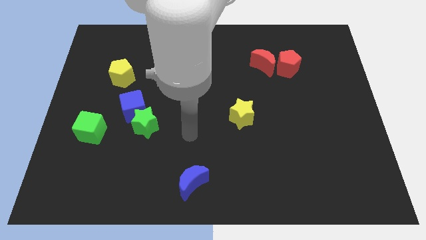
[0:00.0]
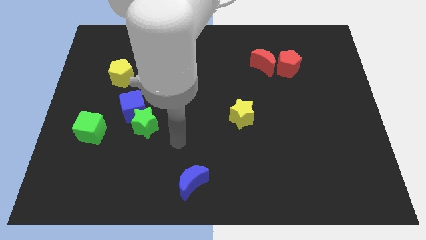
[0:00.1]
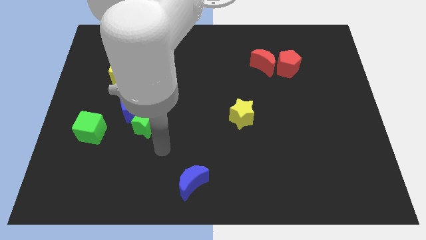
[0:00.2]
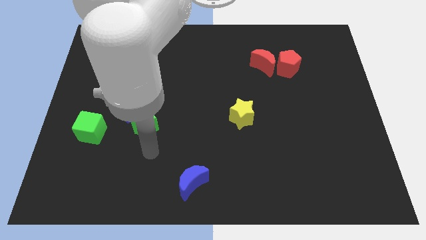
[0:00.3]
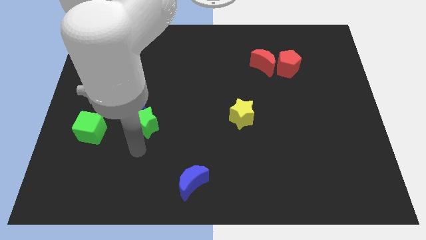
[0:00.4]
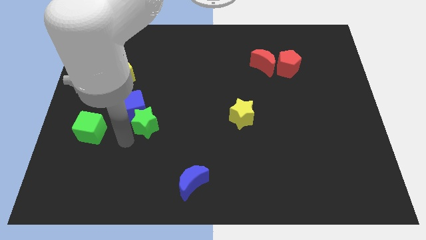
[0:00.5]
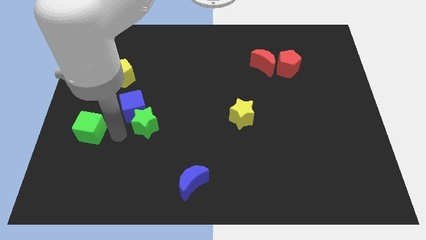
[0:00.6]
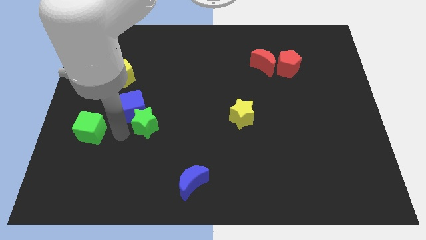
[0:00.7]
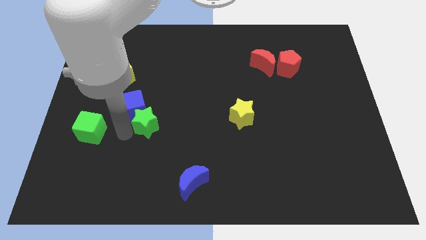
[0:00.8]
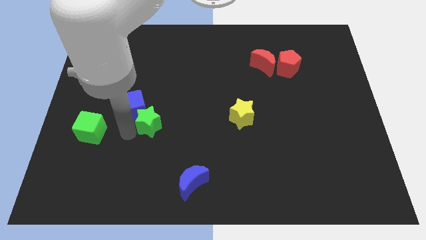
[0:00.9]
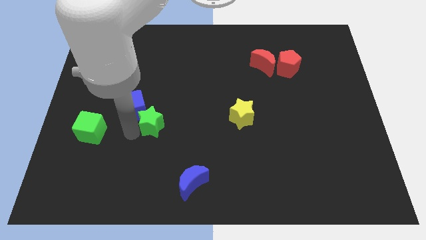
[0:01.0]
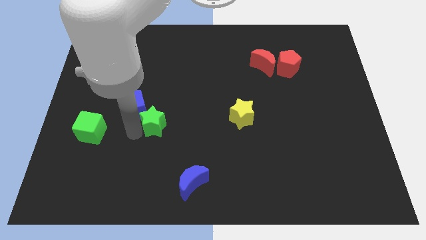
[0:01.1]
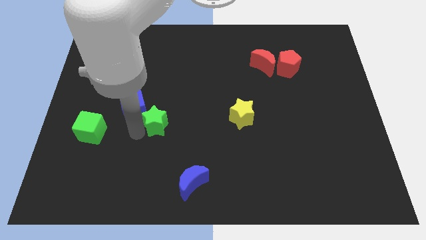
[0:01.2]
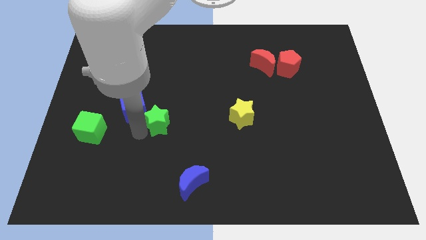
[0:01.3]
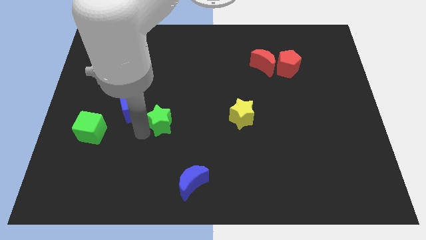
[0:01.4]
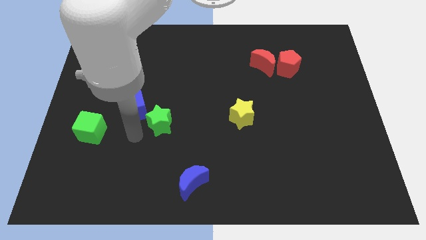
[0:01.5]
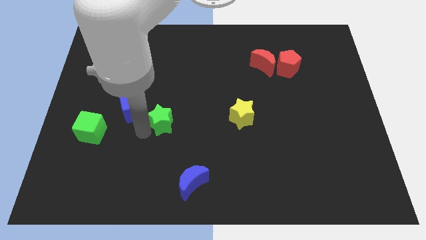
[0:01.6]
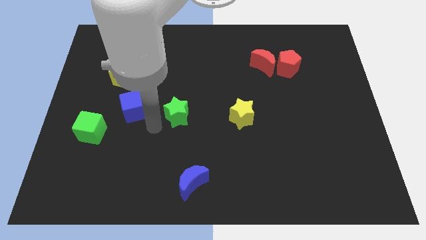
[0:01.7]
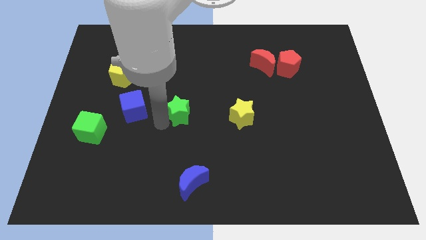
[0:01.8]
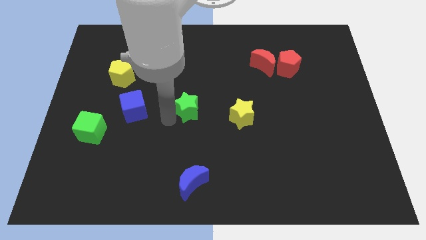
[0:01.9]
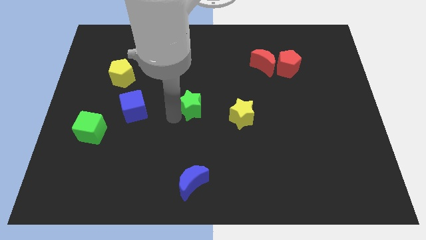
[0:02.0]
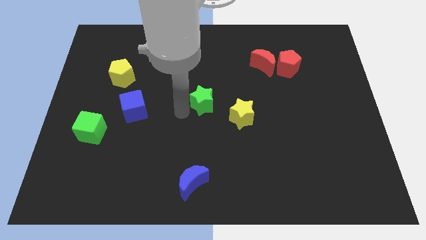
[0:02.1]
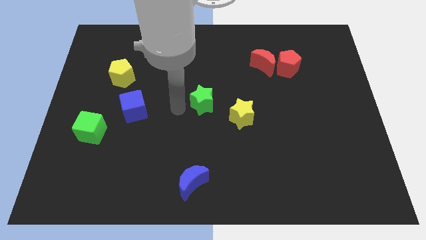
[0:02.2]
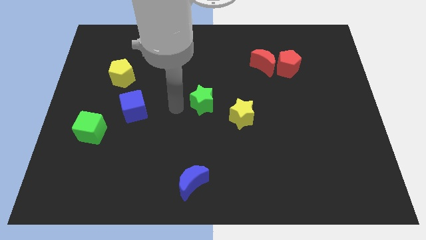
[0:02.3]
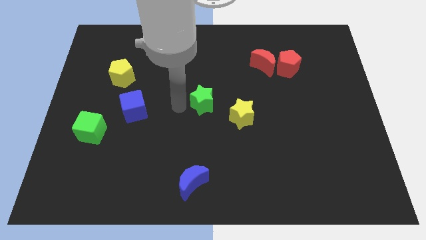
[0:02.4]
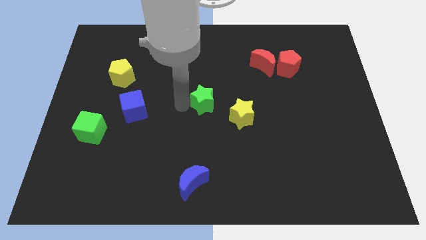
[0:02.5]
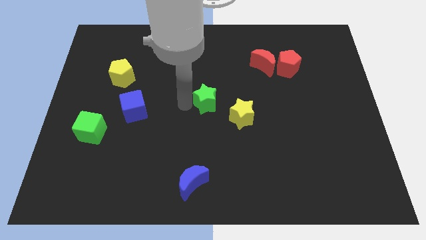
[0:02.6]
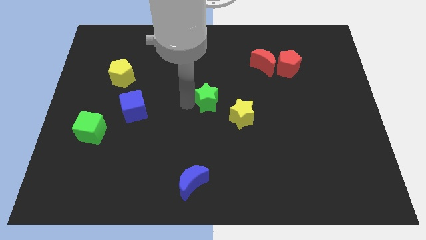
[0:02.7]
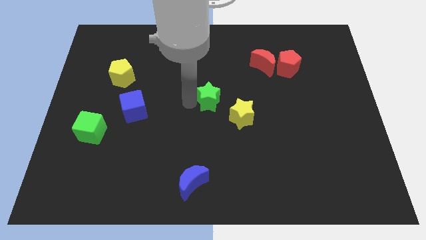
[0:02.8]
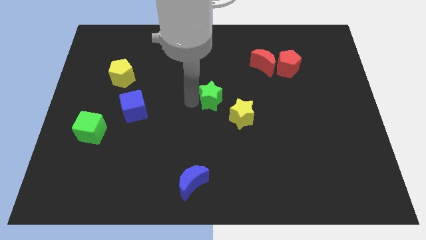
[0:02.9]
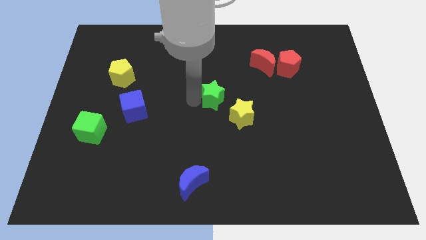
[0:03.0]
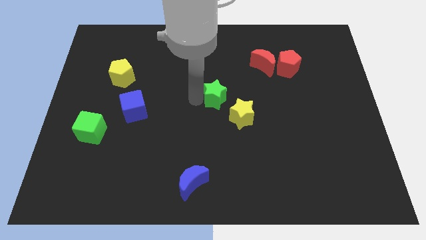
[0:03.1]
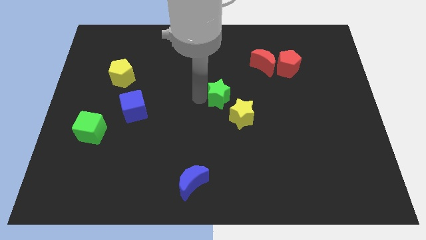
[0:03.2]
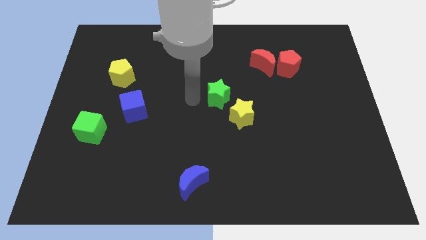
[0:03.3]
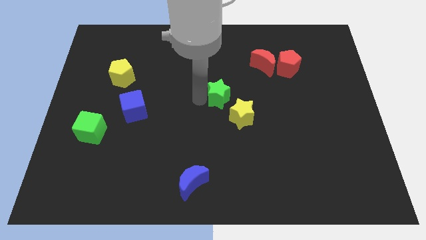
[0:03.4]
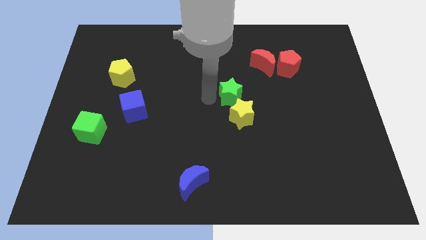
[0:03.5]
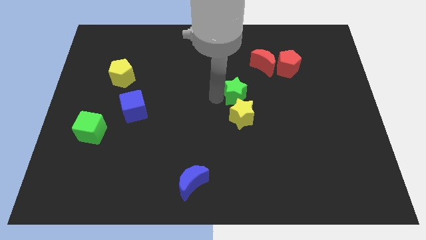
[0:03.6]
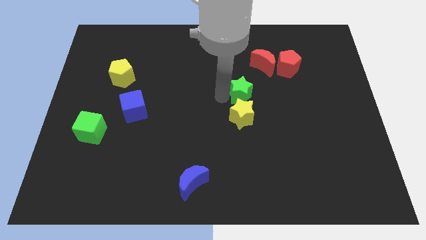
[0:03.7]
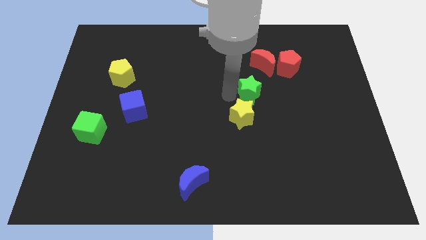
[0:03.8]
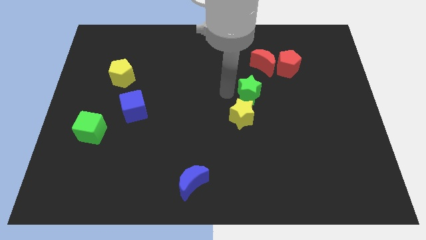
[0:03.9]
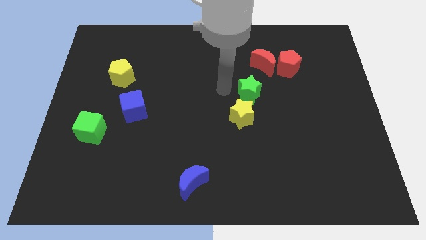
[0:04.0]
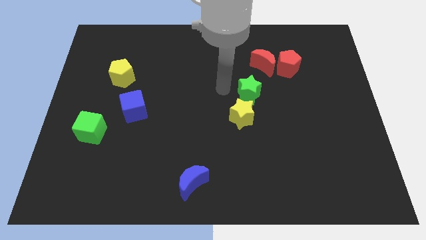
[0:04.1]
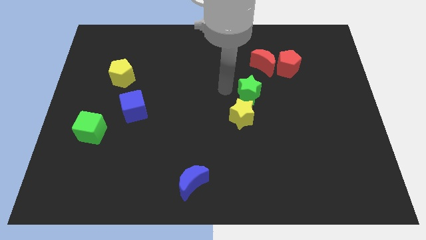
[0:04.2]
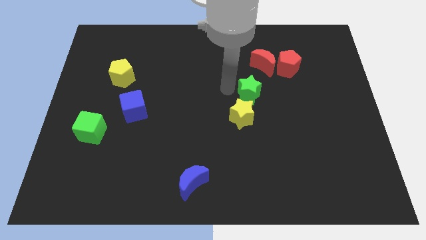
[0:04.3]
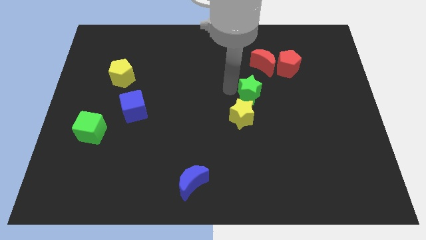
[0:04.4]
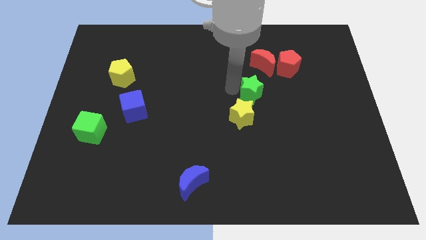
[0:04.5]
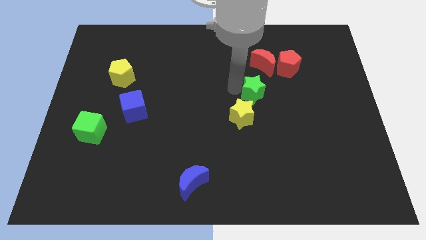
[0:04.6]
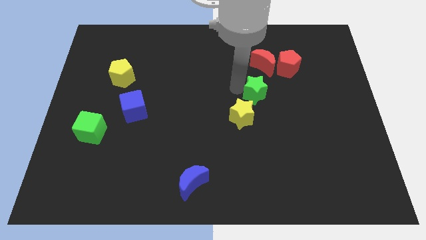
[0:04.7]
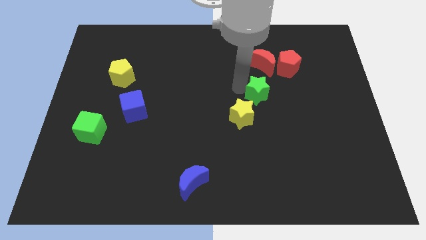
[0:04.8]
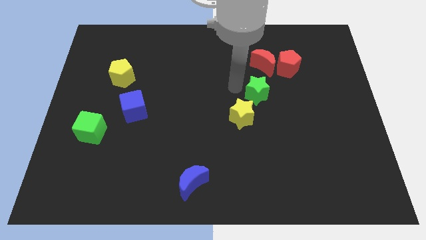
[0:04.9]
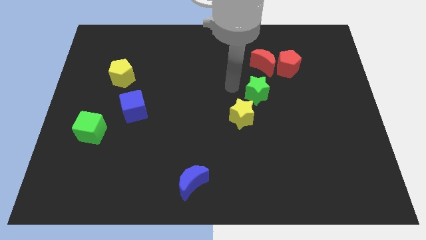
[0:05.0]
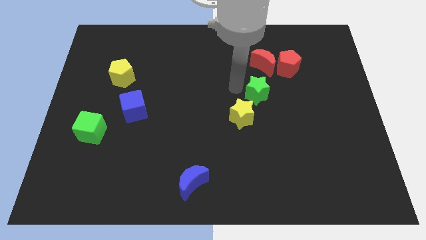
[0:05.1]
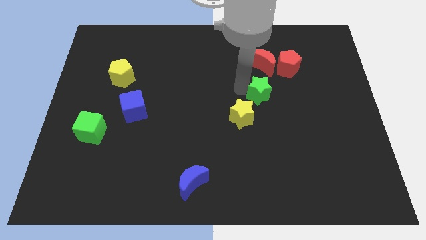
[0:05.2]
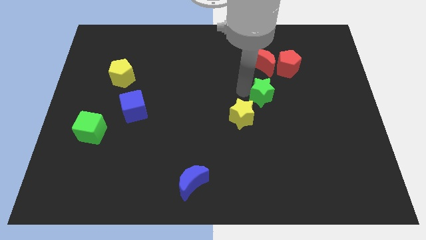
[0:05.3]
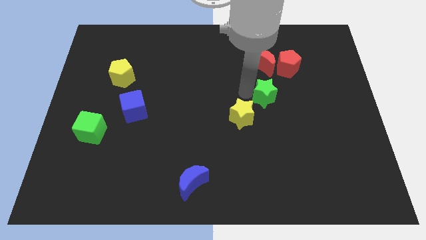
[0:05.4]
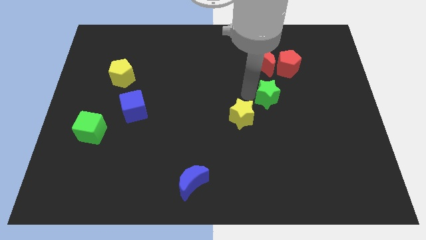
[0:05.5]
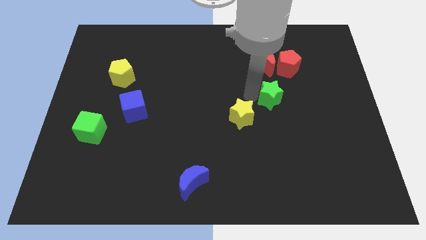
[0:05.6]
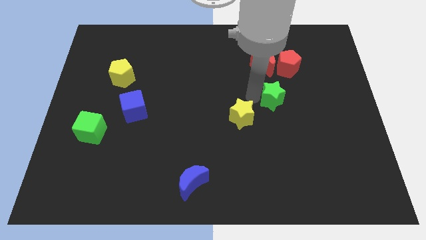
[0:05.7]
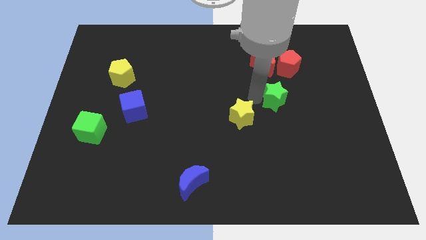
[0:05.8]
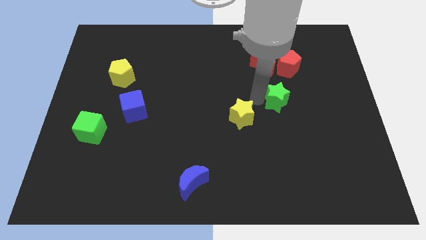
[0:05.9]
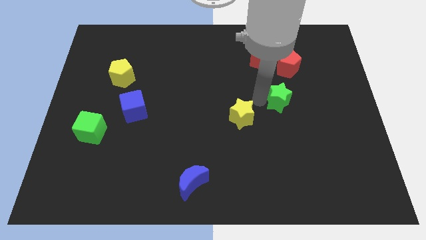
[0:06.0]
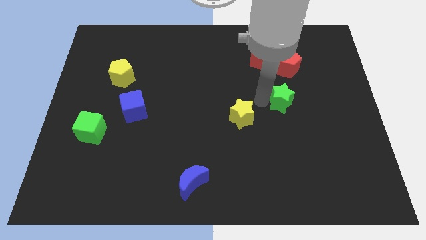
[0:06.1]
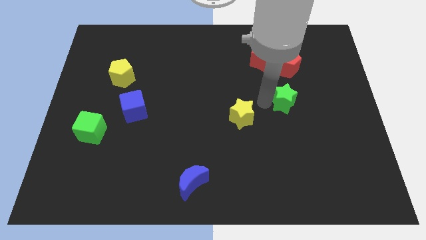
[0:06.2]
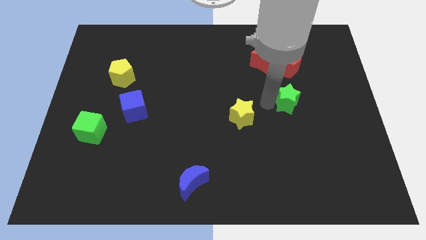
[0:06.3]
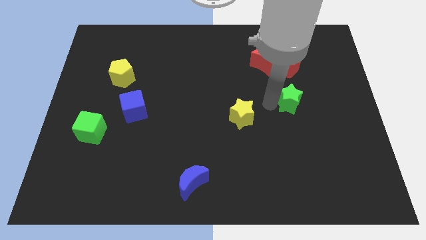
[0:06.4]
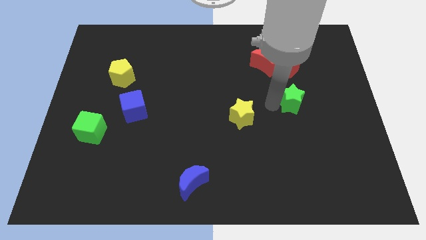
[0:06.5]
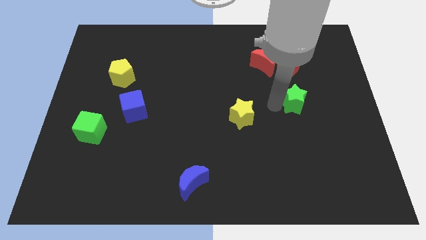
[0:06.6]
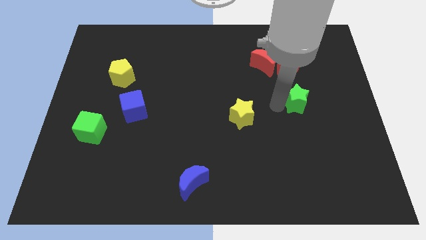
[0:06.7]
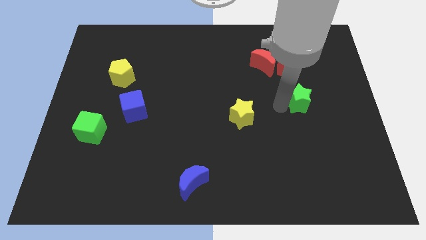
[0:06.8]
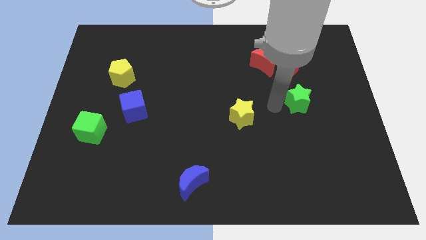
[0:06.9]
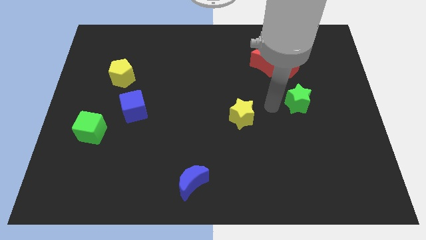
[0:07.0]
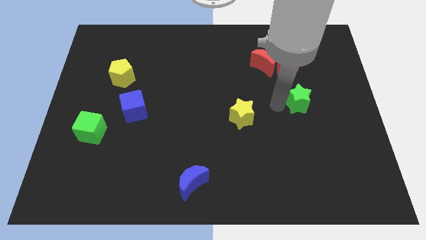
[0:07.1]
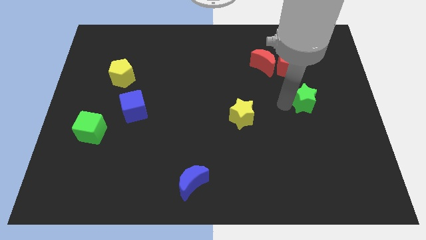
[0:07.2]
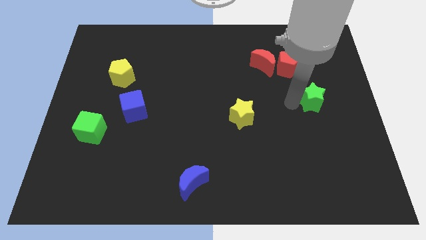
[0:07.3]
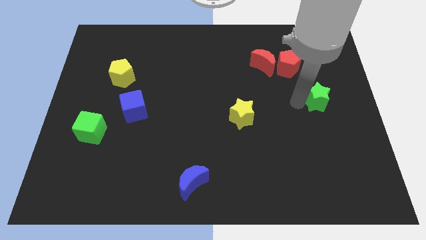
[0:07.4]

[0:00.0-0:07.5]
push the green star to the right side

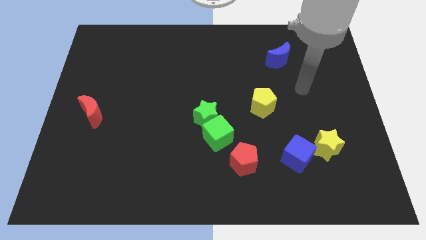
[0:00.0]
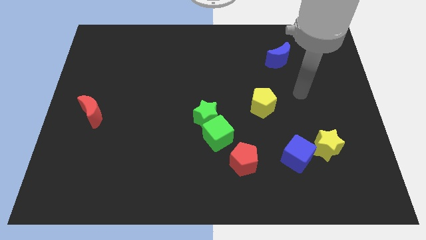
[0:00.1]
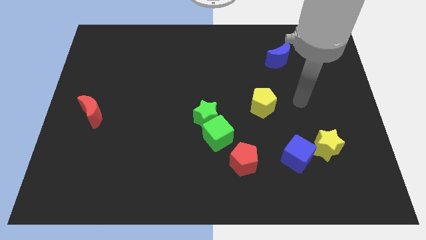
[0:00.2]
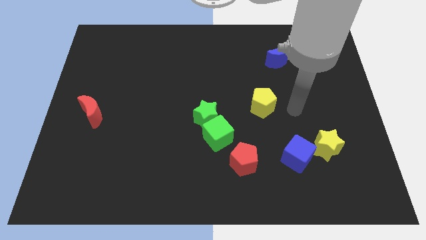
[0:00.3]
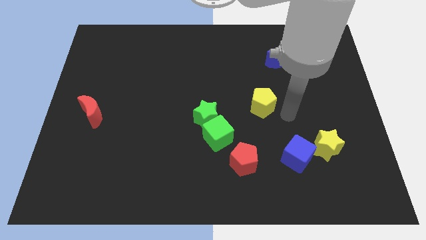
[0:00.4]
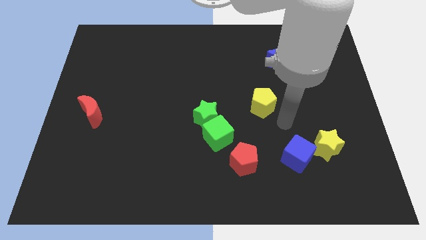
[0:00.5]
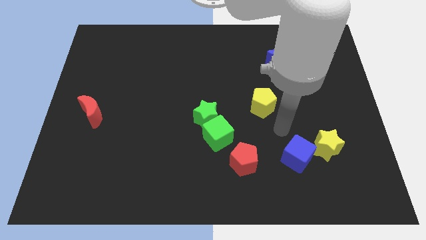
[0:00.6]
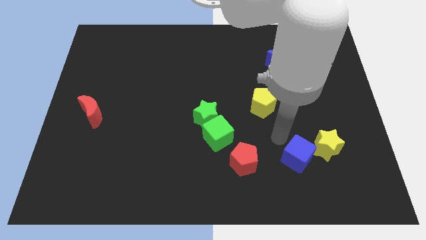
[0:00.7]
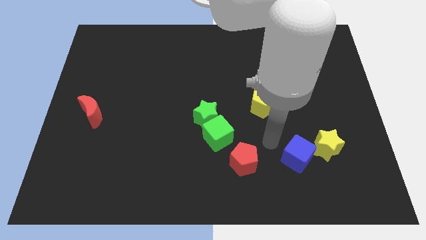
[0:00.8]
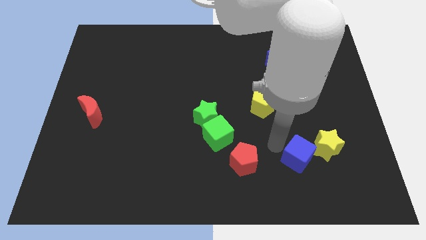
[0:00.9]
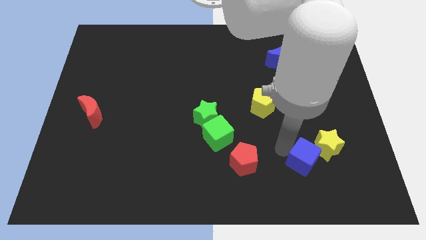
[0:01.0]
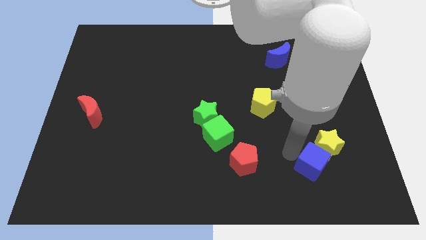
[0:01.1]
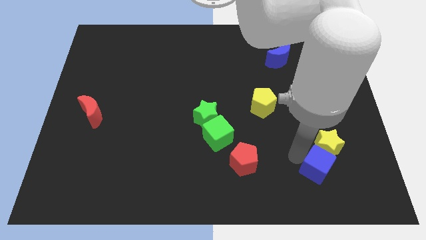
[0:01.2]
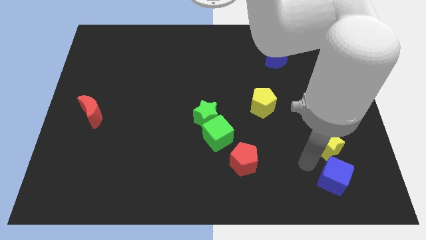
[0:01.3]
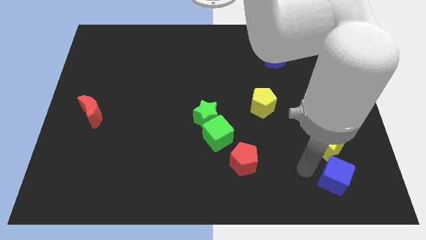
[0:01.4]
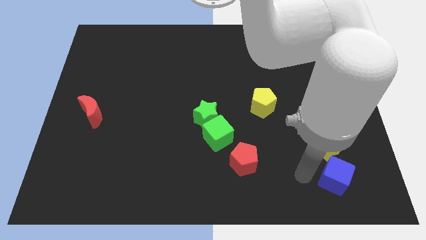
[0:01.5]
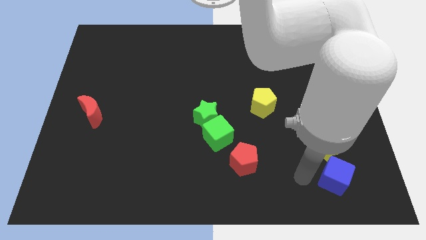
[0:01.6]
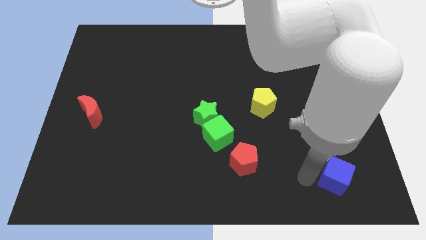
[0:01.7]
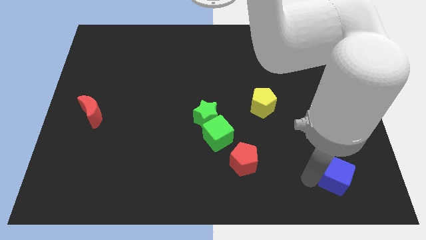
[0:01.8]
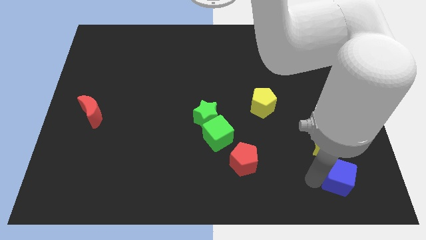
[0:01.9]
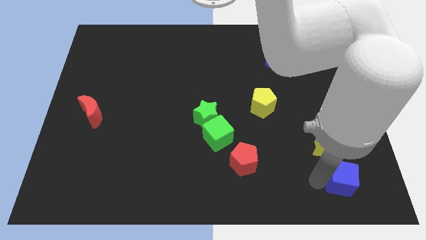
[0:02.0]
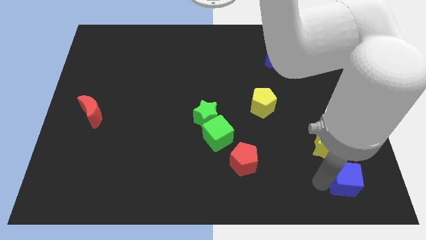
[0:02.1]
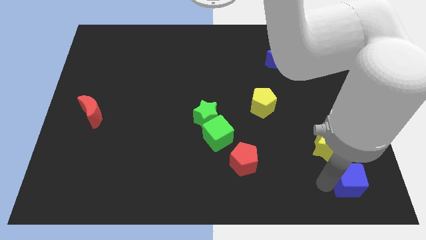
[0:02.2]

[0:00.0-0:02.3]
put the blue cube to the lower right corner
